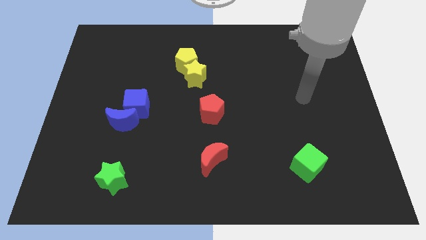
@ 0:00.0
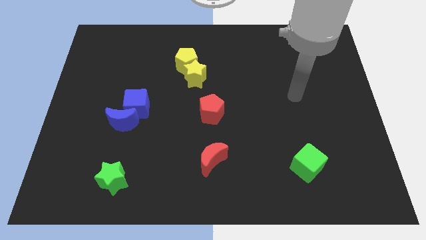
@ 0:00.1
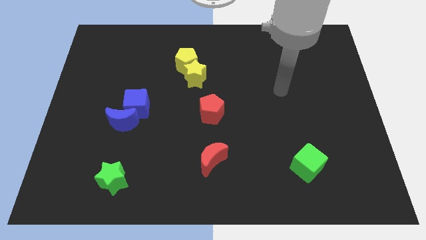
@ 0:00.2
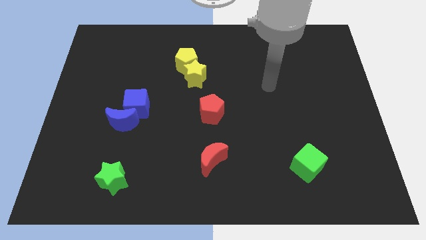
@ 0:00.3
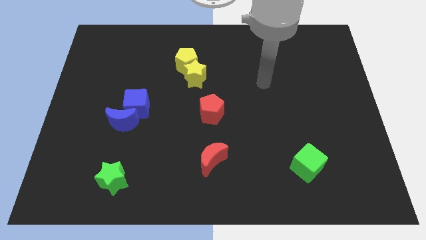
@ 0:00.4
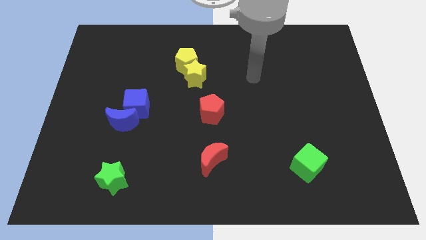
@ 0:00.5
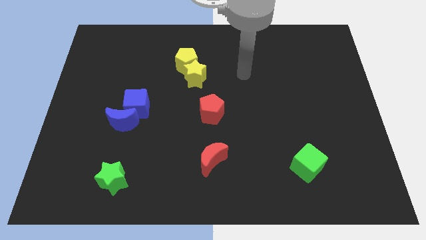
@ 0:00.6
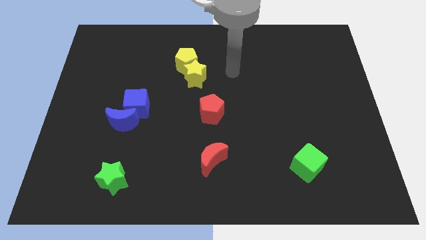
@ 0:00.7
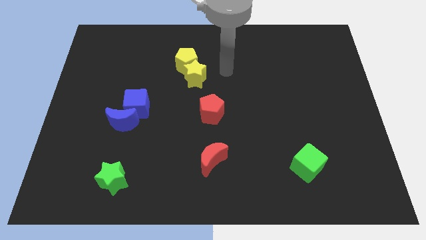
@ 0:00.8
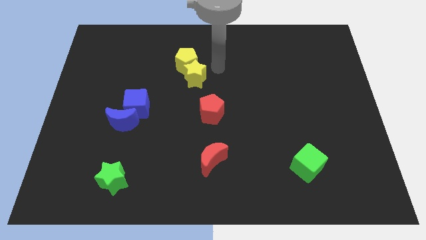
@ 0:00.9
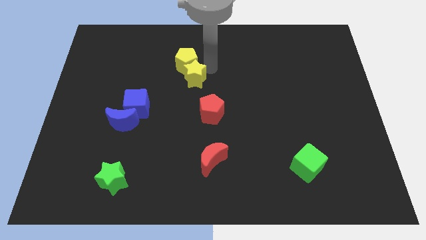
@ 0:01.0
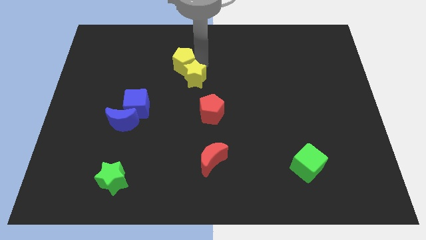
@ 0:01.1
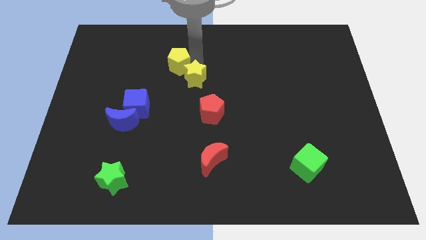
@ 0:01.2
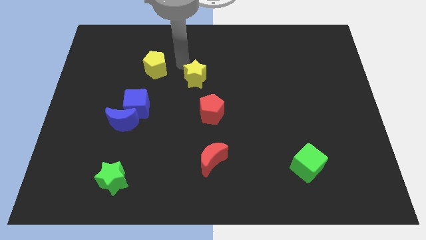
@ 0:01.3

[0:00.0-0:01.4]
separate the yellow star from the yellow pentagon

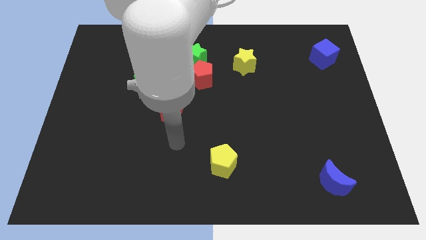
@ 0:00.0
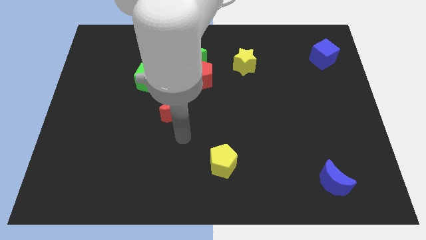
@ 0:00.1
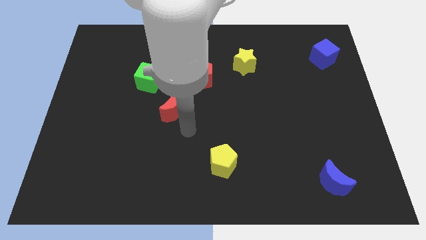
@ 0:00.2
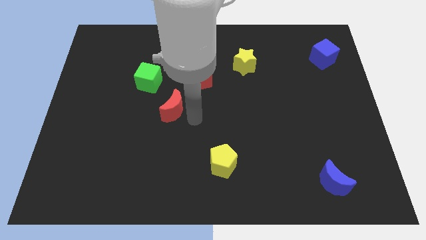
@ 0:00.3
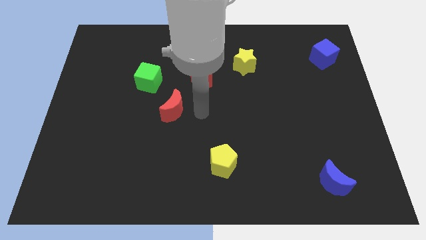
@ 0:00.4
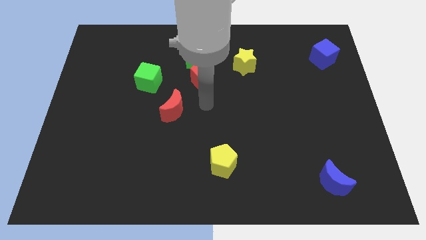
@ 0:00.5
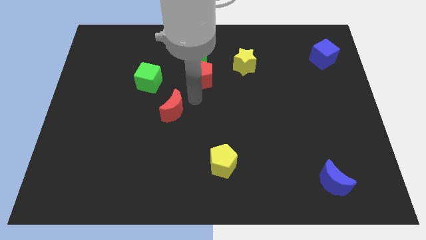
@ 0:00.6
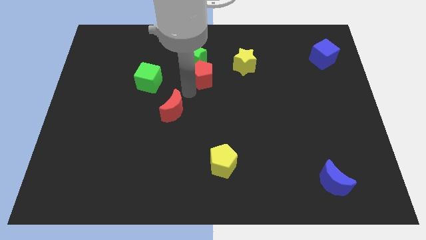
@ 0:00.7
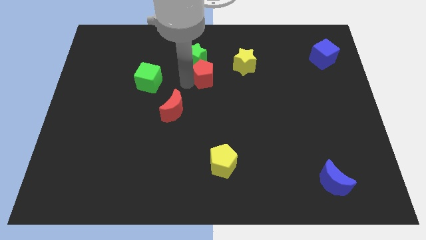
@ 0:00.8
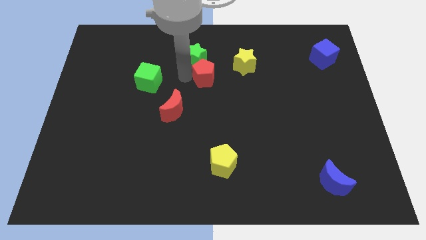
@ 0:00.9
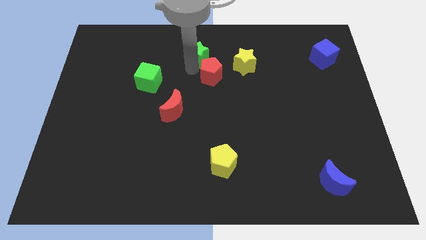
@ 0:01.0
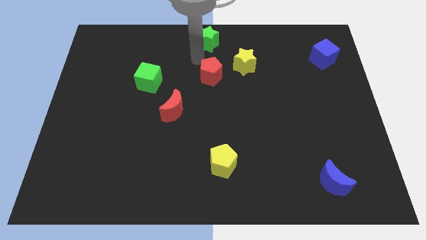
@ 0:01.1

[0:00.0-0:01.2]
pull the red pentagon apart from the green star

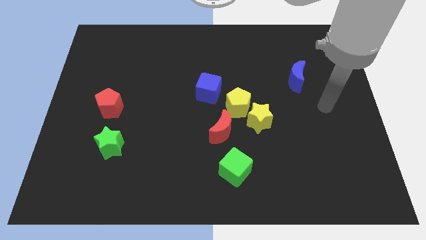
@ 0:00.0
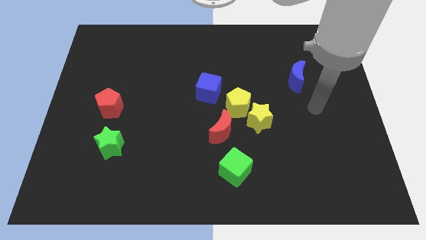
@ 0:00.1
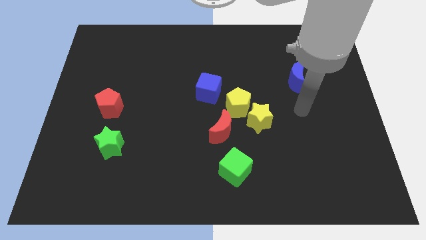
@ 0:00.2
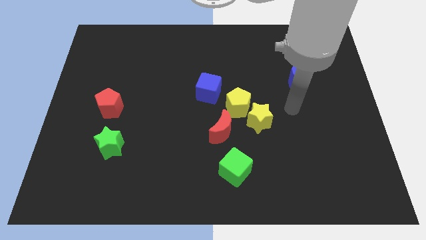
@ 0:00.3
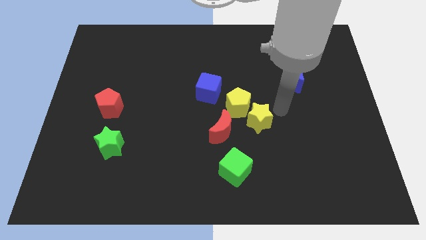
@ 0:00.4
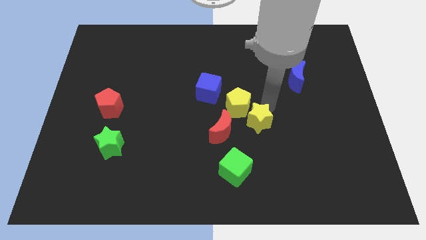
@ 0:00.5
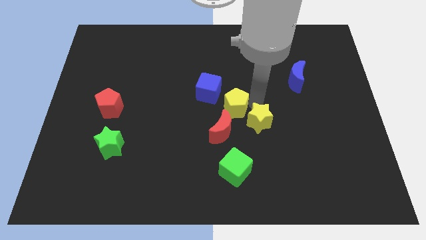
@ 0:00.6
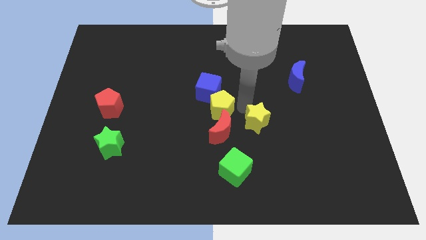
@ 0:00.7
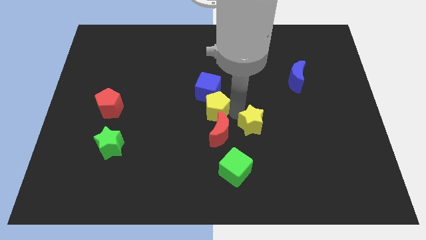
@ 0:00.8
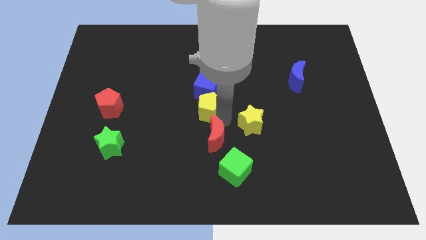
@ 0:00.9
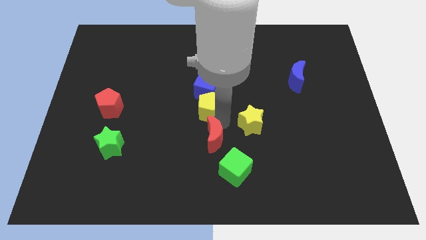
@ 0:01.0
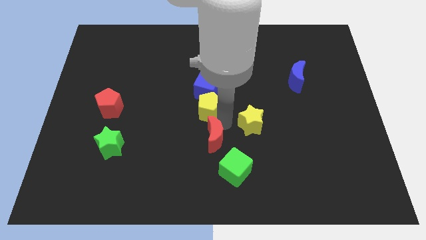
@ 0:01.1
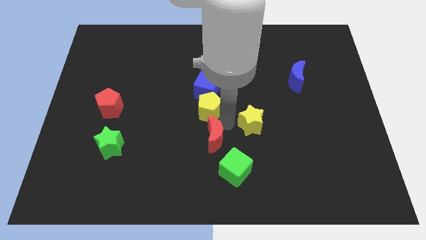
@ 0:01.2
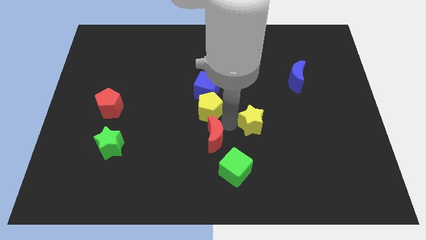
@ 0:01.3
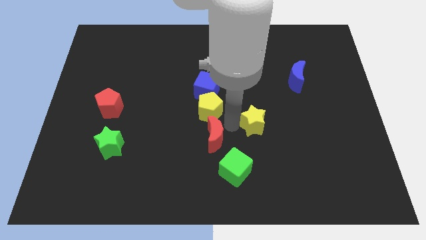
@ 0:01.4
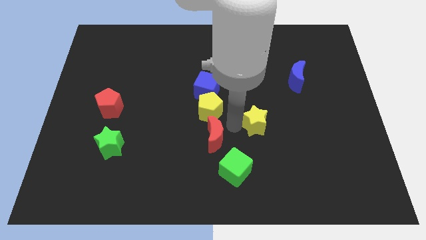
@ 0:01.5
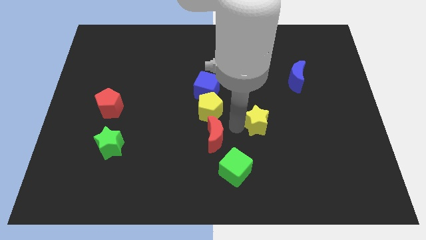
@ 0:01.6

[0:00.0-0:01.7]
separate the yellow star from the yellow pentagon and red moon

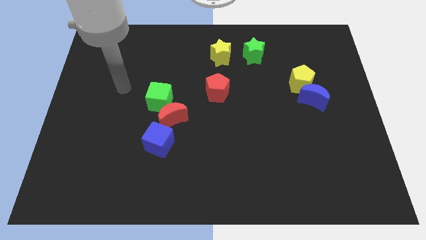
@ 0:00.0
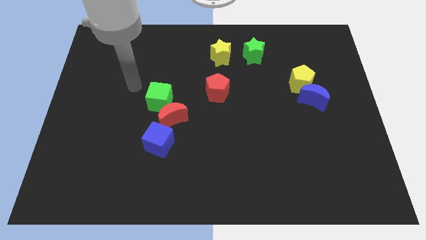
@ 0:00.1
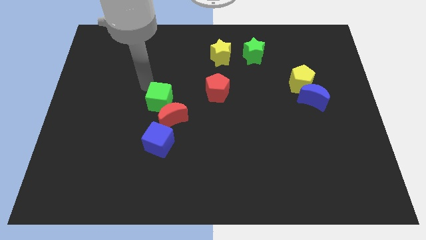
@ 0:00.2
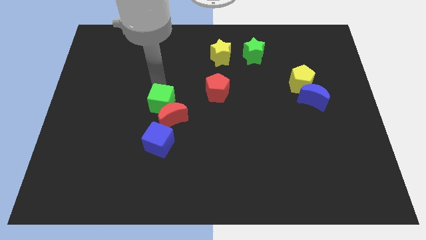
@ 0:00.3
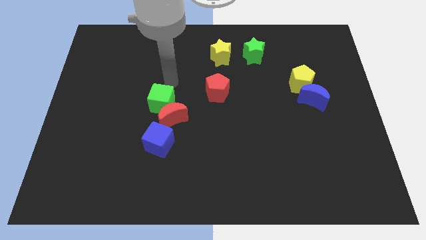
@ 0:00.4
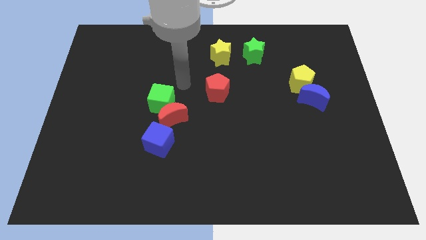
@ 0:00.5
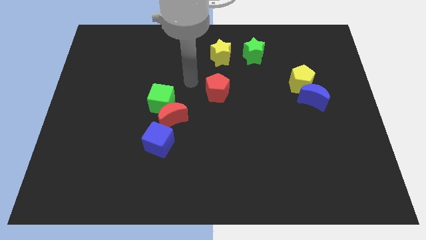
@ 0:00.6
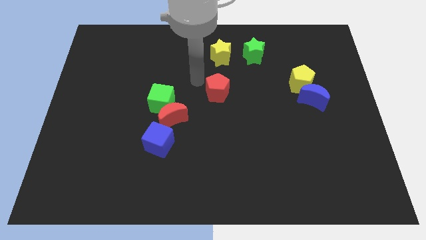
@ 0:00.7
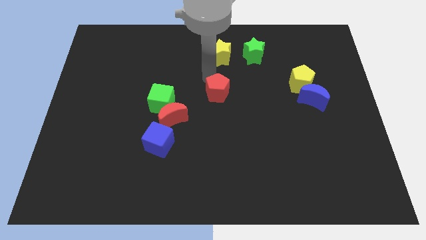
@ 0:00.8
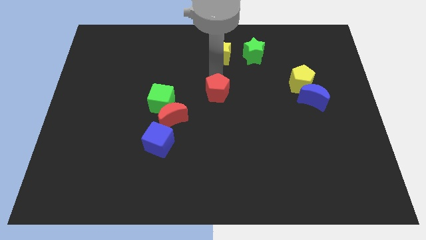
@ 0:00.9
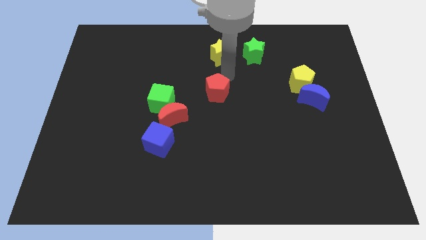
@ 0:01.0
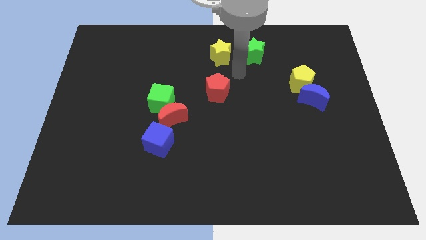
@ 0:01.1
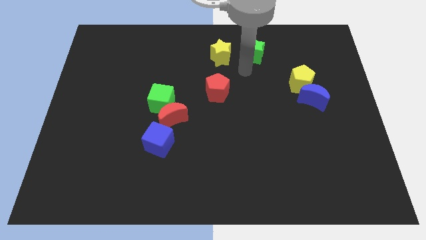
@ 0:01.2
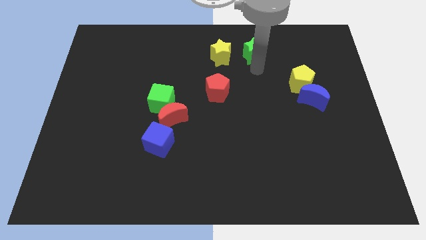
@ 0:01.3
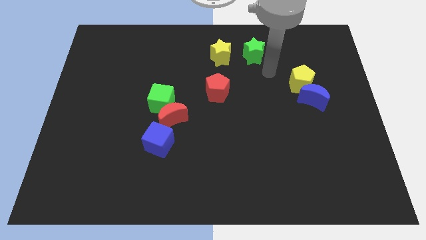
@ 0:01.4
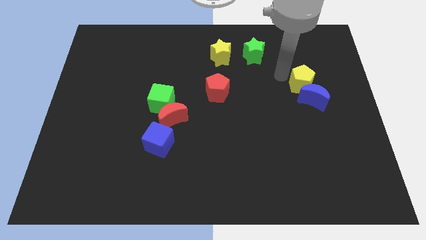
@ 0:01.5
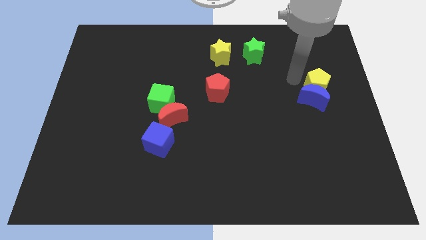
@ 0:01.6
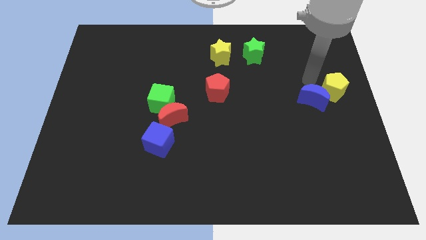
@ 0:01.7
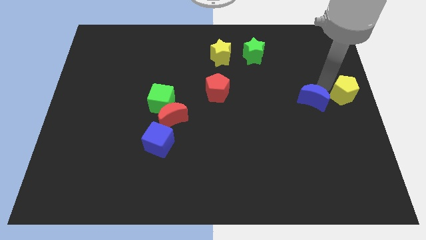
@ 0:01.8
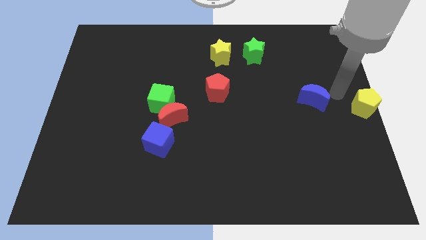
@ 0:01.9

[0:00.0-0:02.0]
pull the blue moon apart from the yellow pentagon

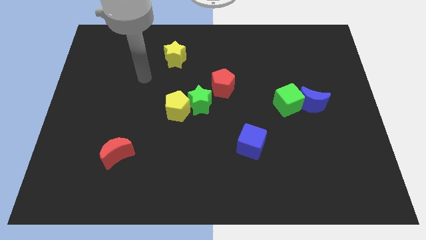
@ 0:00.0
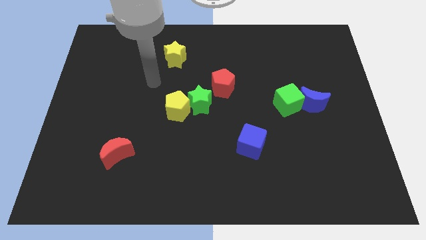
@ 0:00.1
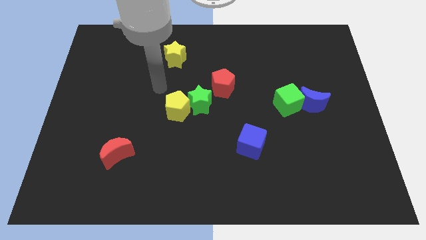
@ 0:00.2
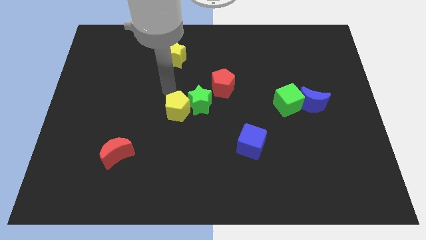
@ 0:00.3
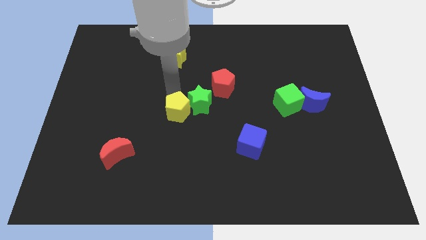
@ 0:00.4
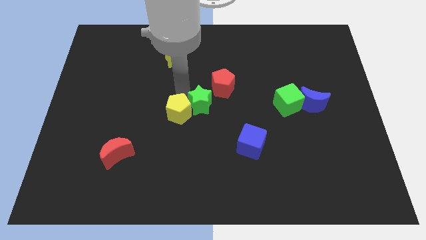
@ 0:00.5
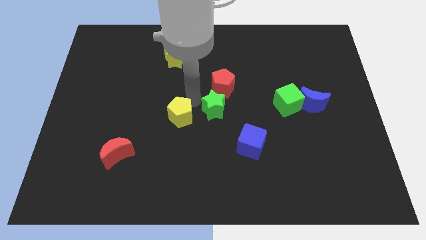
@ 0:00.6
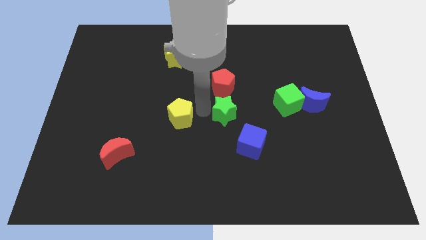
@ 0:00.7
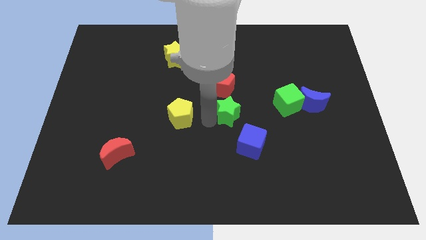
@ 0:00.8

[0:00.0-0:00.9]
move the yellow pentagon away from the green star

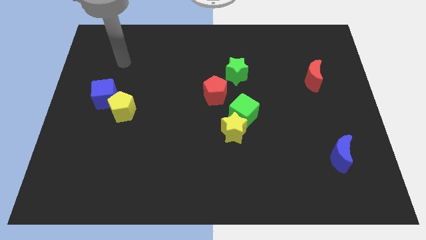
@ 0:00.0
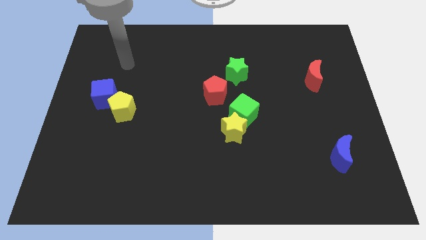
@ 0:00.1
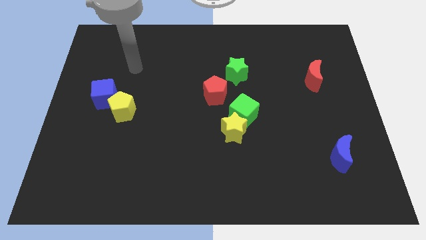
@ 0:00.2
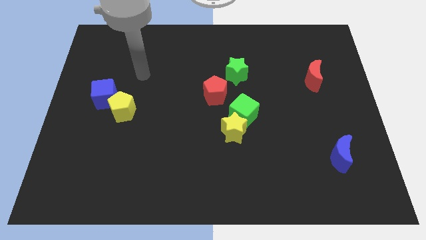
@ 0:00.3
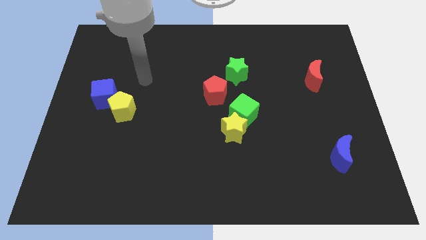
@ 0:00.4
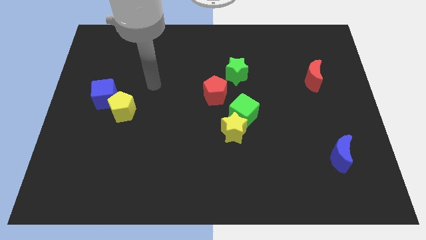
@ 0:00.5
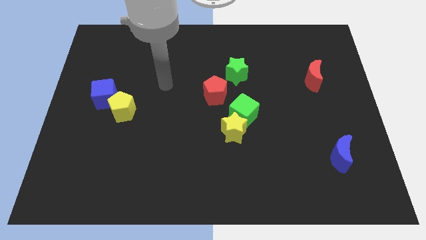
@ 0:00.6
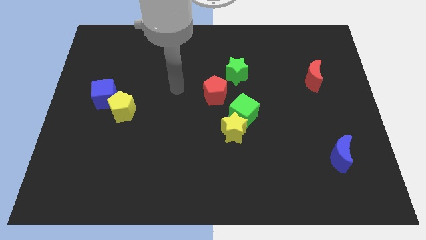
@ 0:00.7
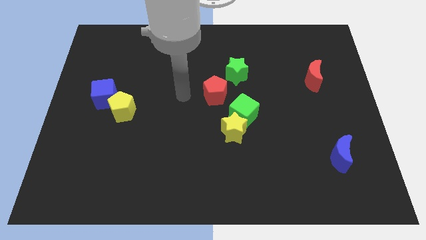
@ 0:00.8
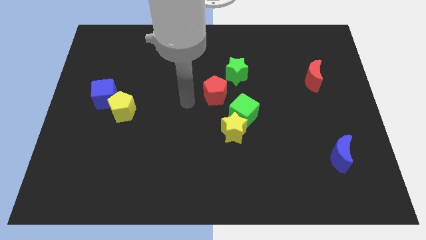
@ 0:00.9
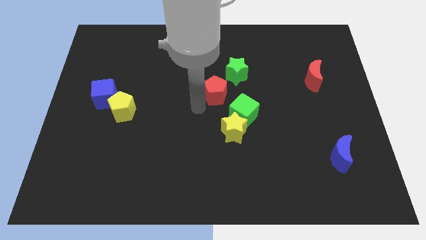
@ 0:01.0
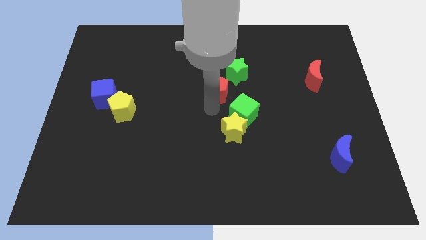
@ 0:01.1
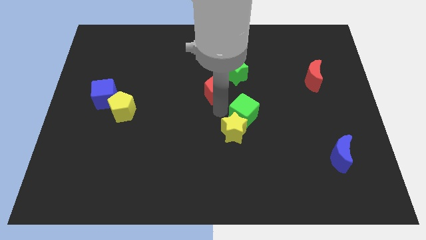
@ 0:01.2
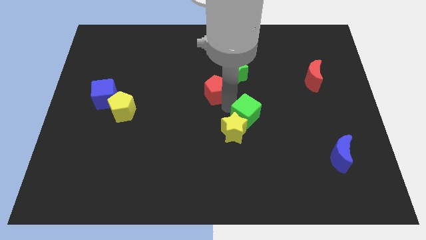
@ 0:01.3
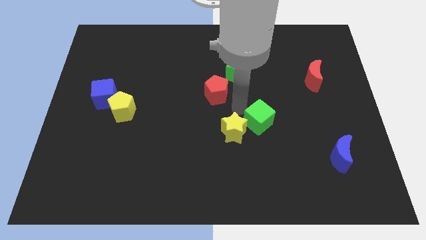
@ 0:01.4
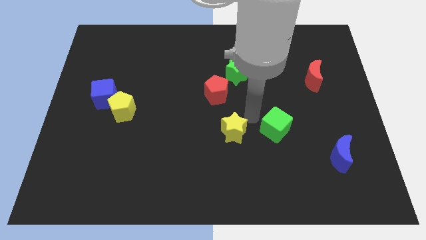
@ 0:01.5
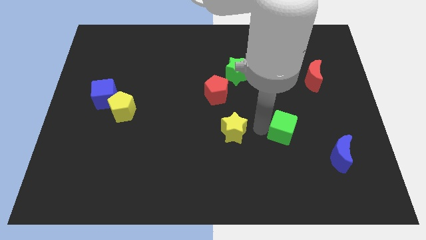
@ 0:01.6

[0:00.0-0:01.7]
pull the yellow star apart from the green cube

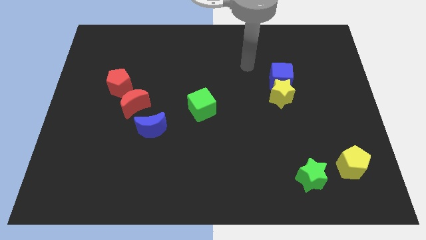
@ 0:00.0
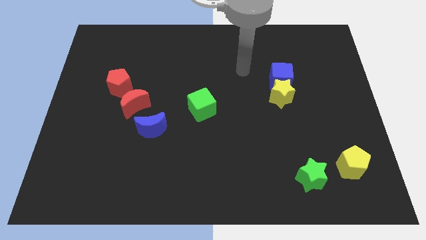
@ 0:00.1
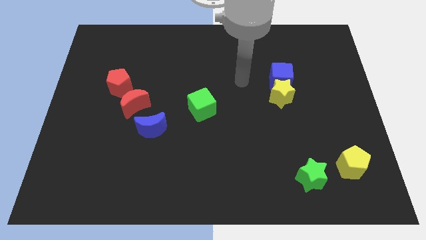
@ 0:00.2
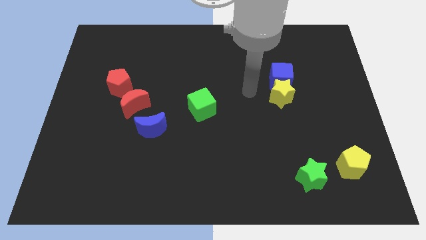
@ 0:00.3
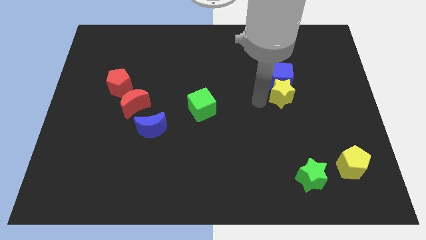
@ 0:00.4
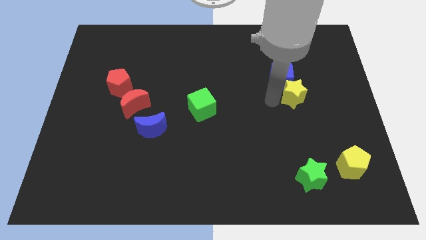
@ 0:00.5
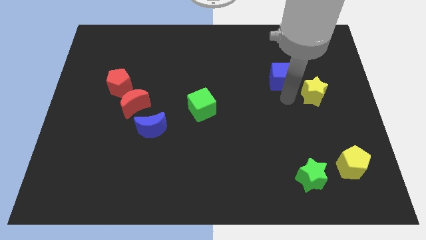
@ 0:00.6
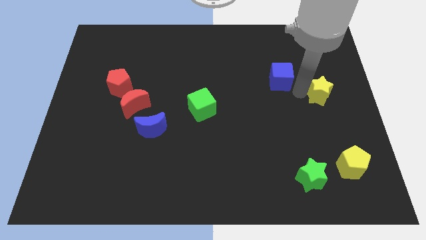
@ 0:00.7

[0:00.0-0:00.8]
move the blue cube away from the yellow star
